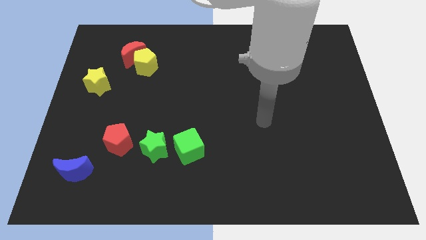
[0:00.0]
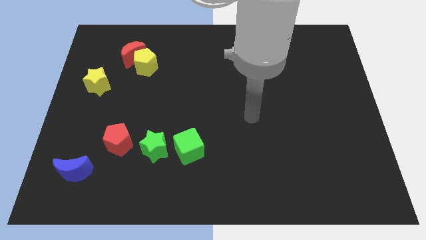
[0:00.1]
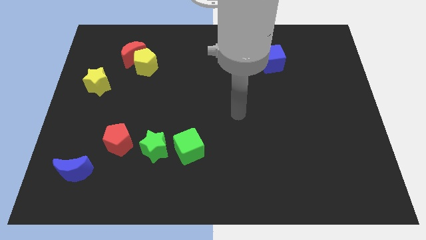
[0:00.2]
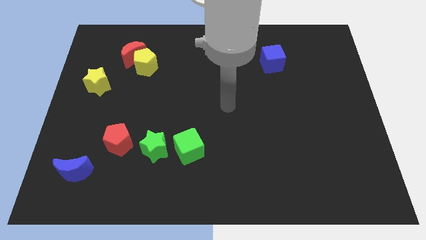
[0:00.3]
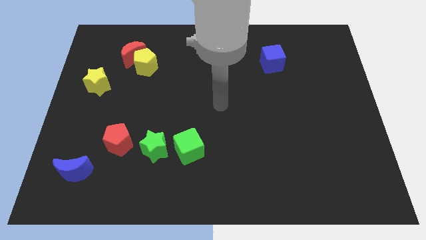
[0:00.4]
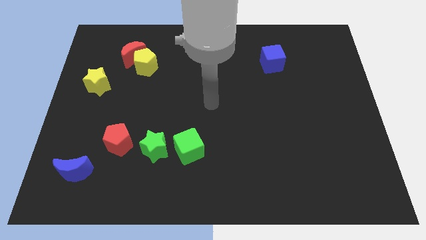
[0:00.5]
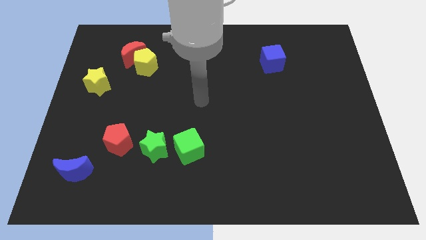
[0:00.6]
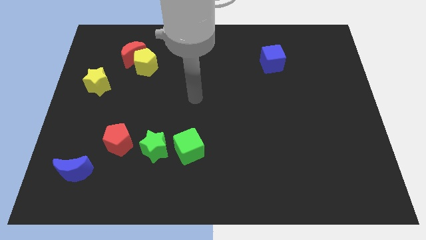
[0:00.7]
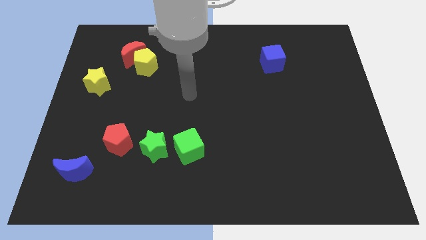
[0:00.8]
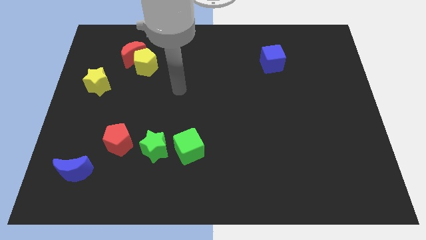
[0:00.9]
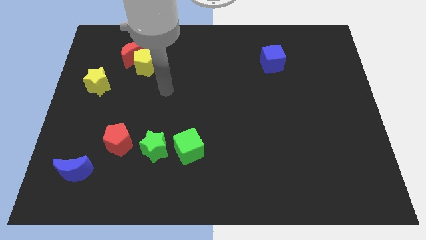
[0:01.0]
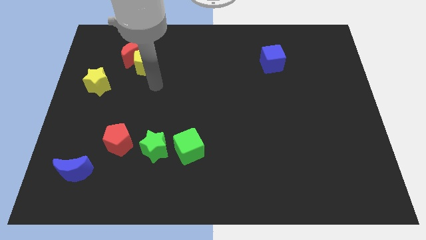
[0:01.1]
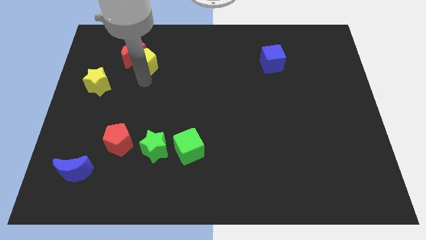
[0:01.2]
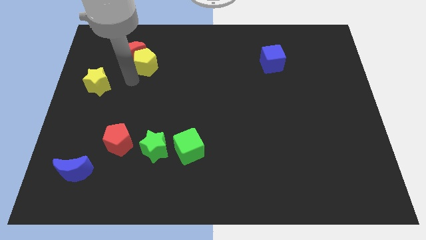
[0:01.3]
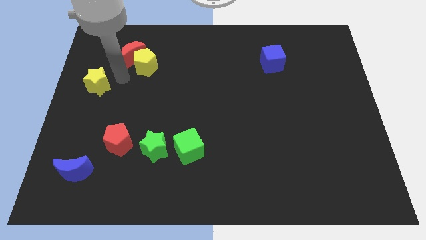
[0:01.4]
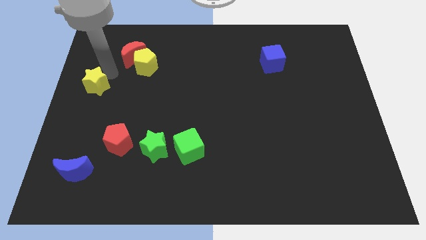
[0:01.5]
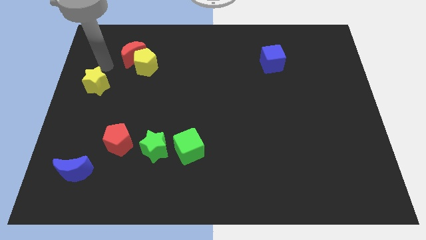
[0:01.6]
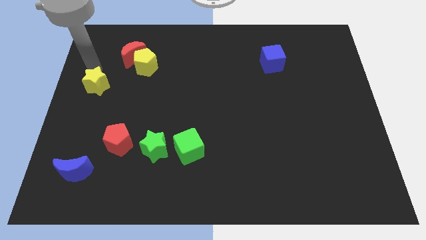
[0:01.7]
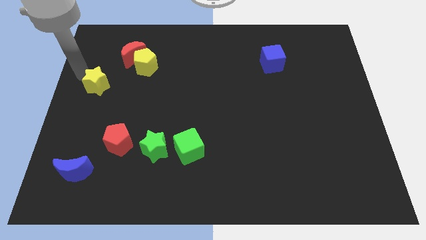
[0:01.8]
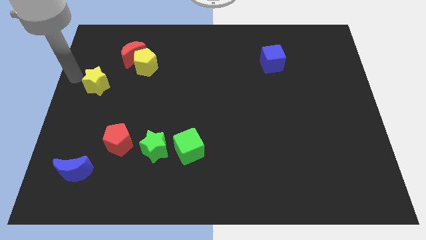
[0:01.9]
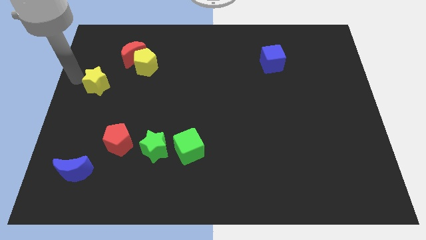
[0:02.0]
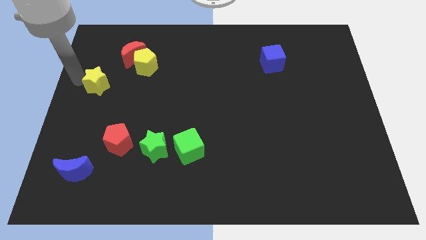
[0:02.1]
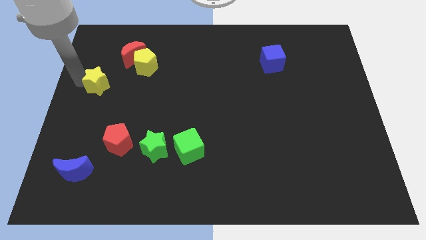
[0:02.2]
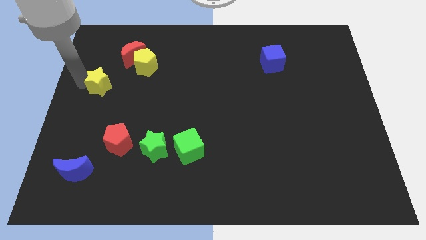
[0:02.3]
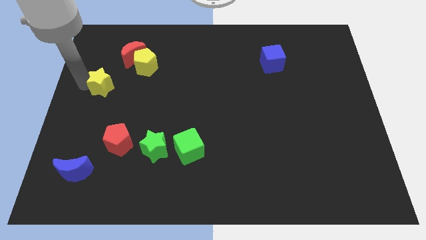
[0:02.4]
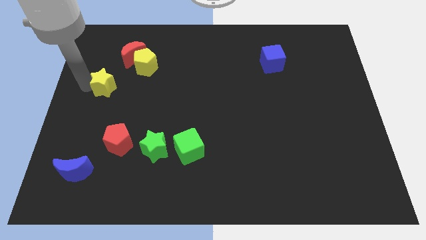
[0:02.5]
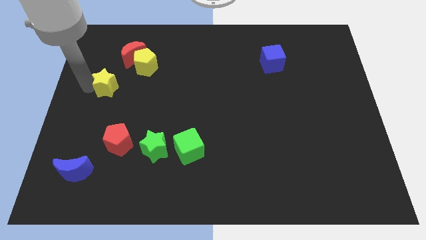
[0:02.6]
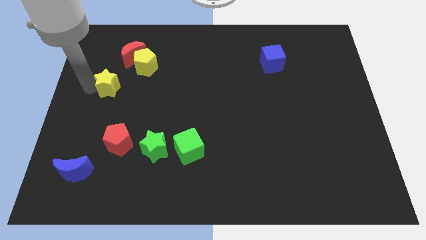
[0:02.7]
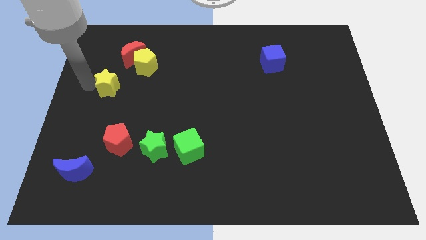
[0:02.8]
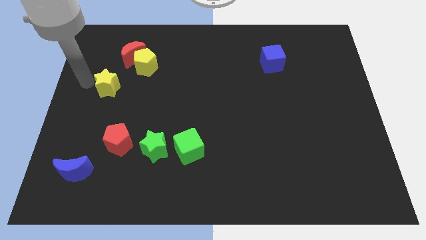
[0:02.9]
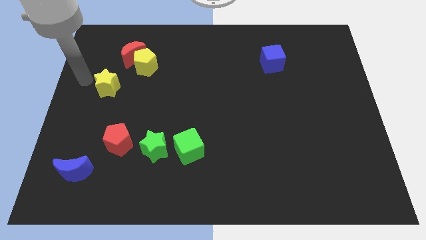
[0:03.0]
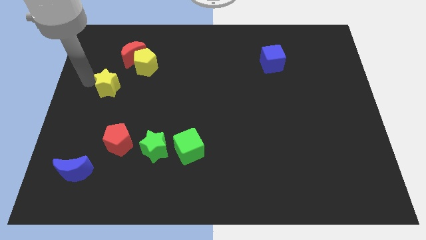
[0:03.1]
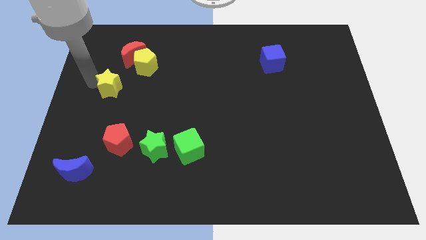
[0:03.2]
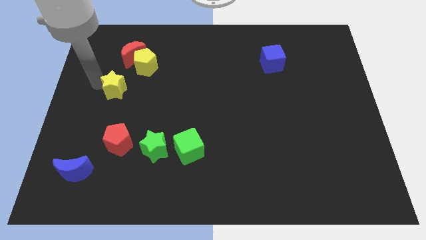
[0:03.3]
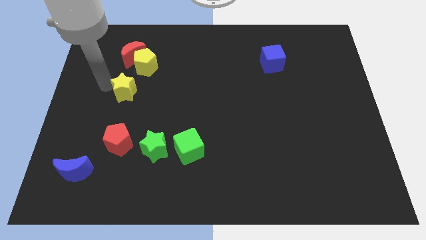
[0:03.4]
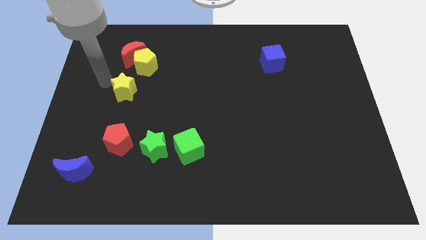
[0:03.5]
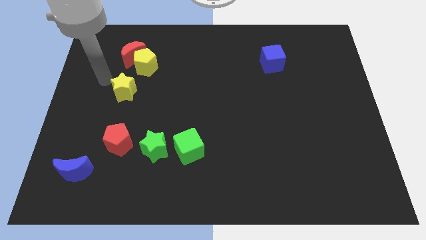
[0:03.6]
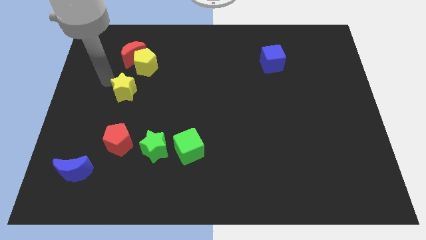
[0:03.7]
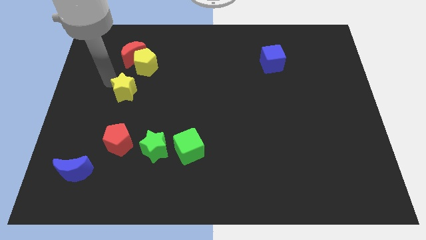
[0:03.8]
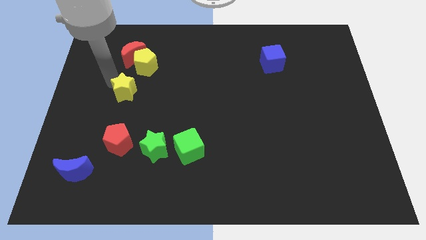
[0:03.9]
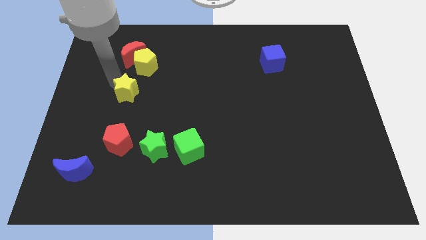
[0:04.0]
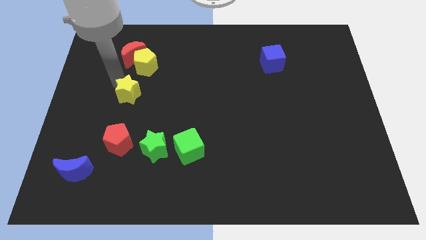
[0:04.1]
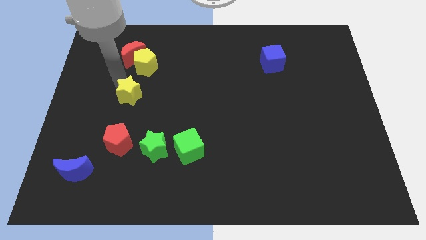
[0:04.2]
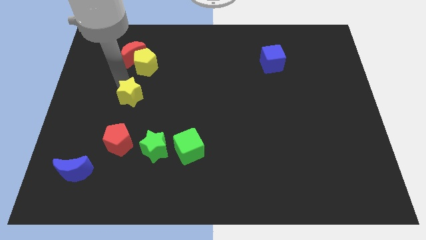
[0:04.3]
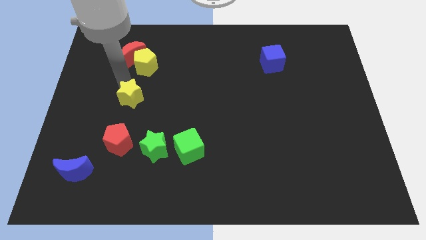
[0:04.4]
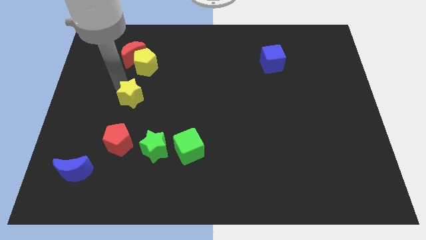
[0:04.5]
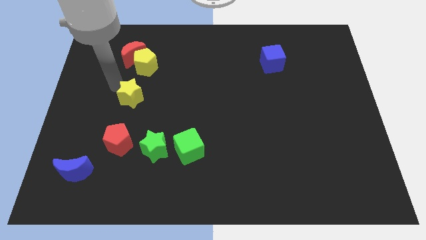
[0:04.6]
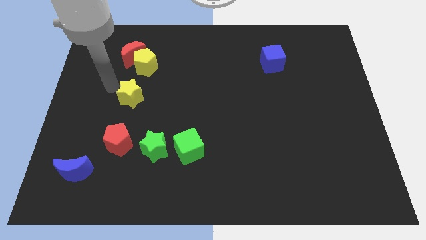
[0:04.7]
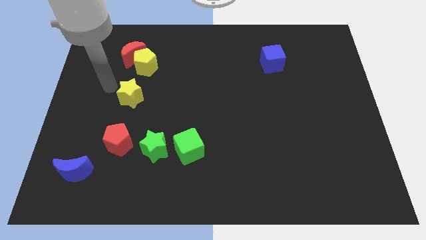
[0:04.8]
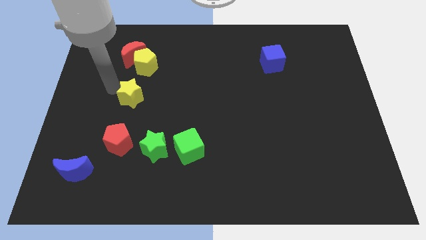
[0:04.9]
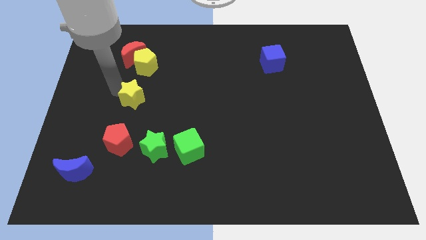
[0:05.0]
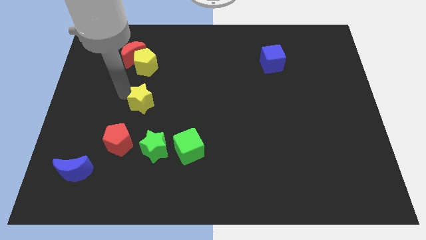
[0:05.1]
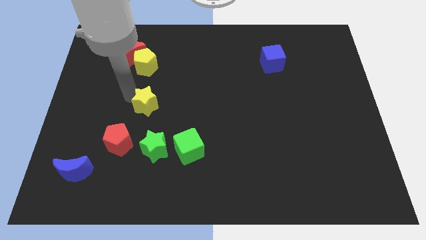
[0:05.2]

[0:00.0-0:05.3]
put the yellow star to the top side of the green star

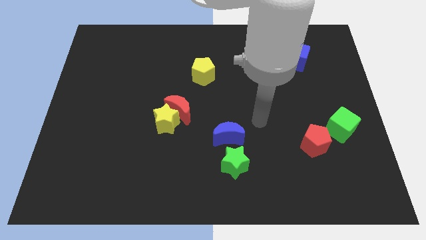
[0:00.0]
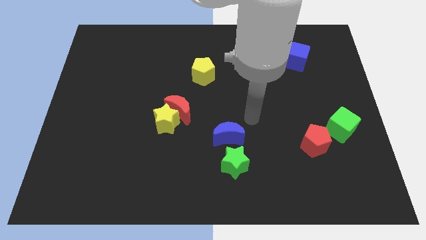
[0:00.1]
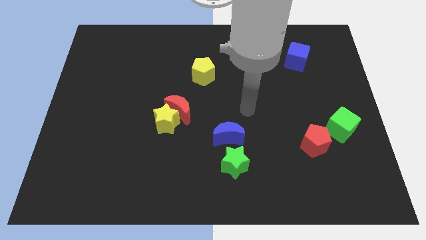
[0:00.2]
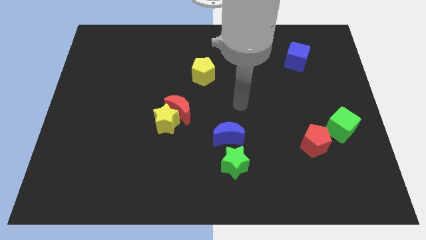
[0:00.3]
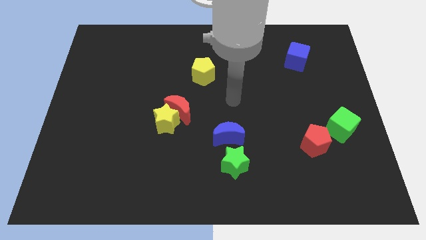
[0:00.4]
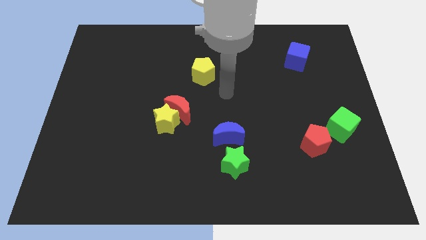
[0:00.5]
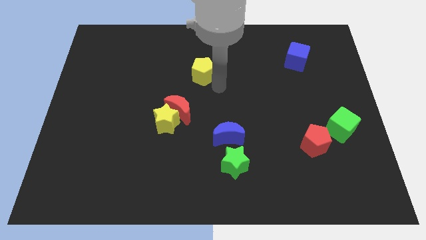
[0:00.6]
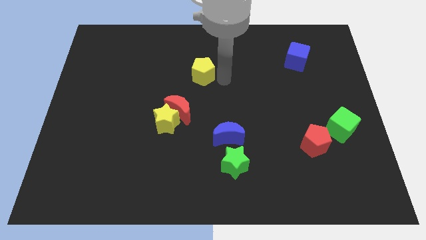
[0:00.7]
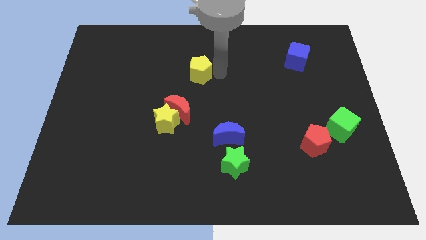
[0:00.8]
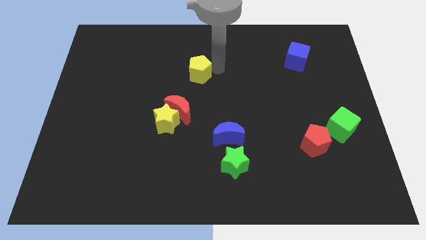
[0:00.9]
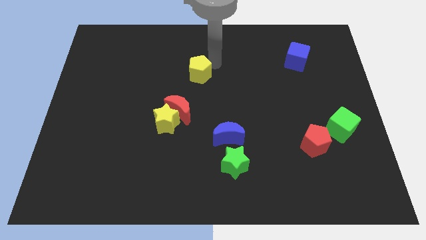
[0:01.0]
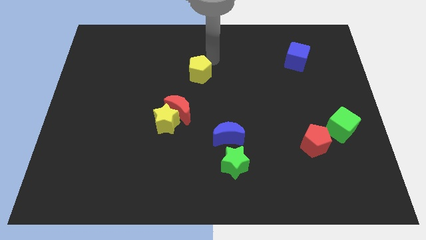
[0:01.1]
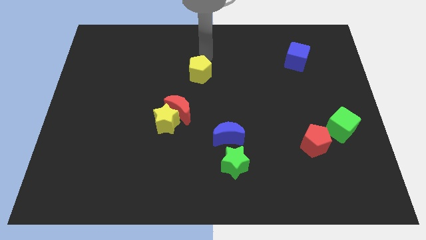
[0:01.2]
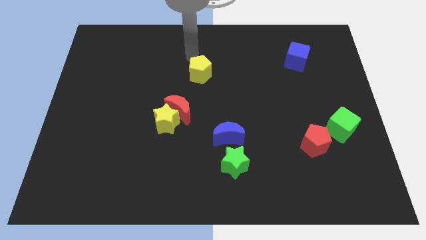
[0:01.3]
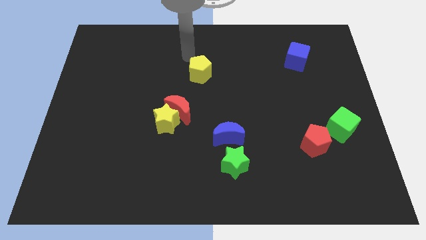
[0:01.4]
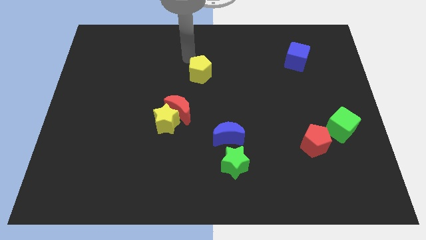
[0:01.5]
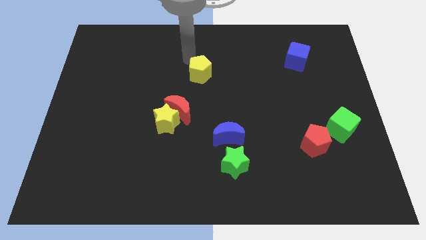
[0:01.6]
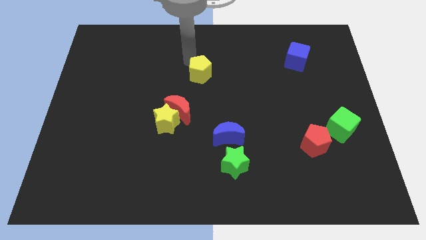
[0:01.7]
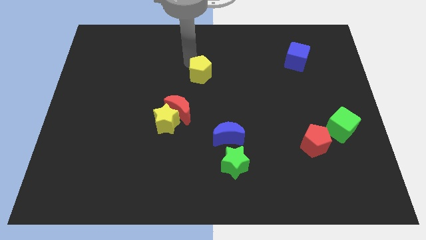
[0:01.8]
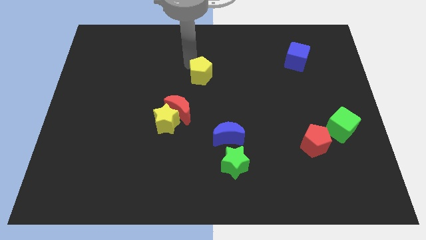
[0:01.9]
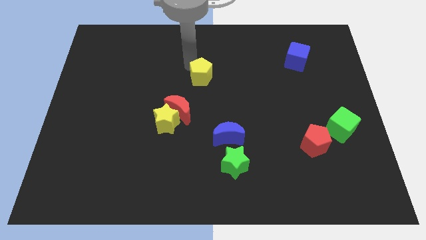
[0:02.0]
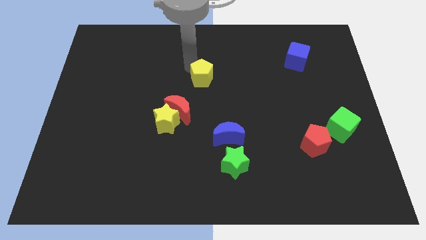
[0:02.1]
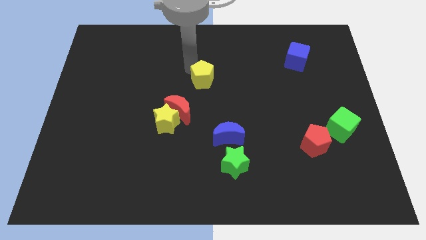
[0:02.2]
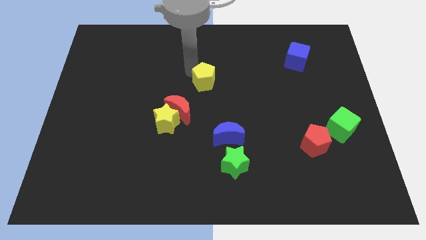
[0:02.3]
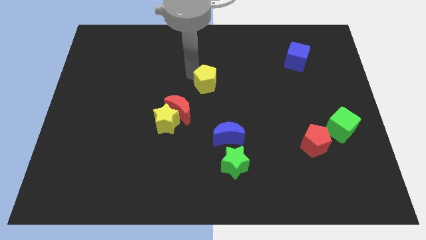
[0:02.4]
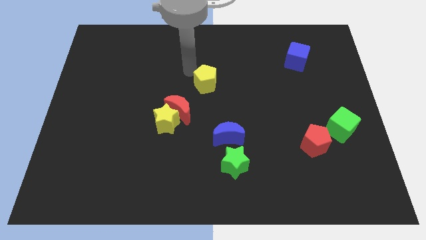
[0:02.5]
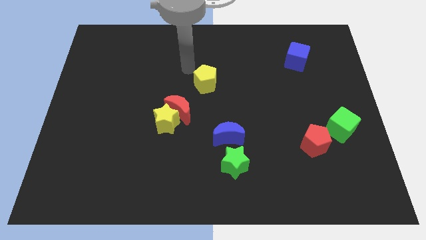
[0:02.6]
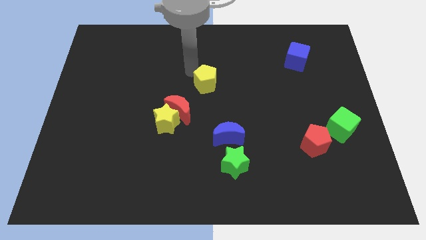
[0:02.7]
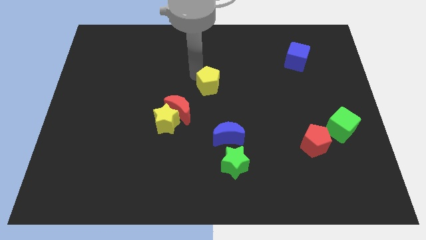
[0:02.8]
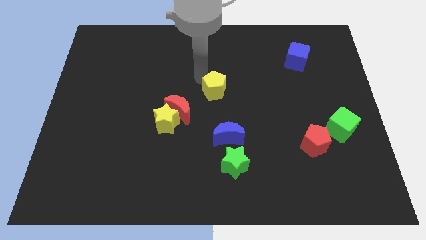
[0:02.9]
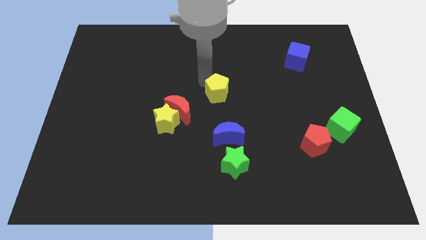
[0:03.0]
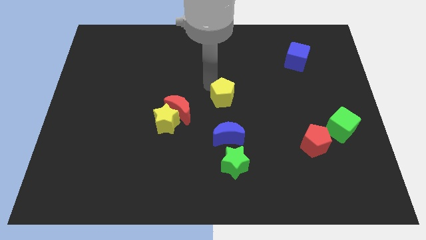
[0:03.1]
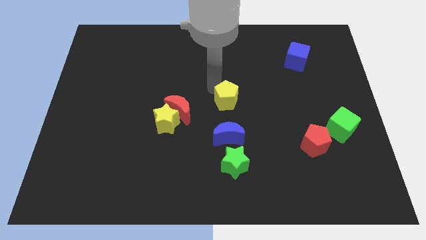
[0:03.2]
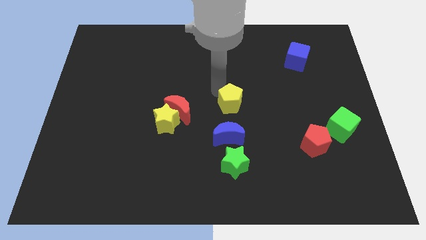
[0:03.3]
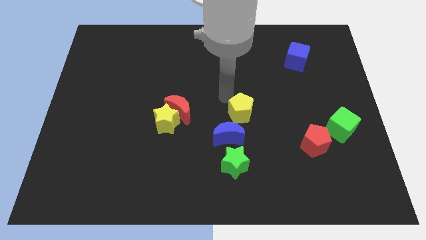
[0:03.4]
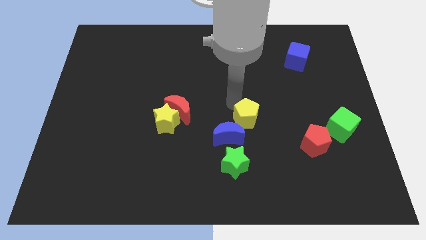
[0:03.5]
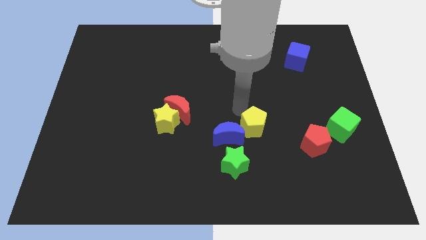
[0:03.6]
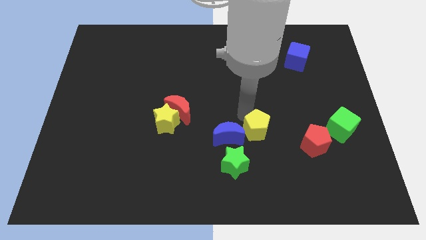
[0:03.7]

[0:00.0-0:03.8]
slide the yellow pentagon to the left side of the red pentagon
